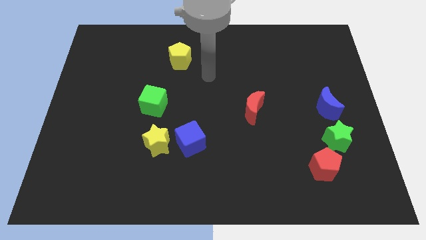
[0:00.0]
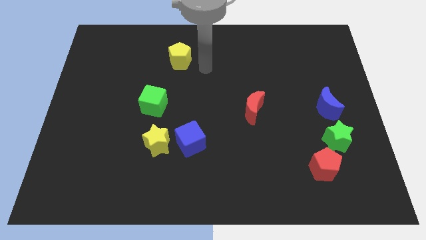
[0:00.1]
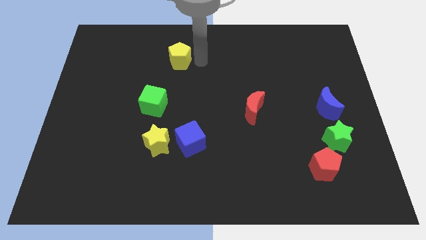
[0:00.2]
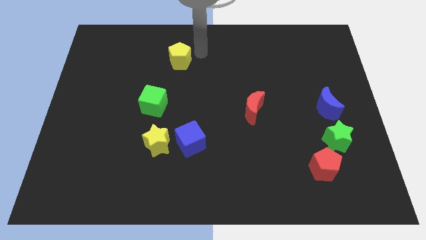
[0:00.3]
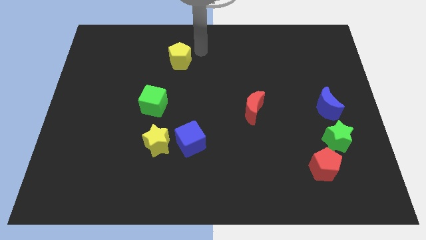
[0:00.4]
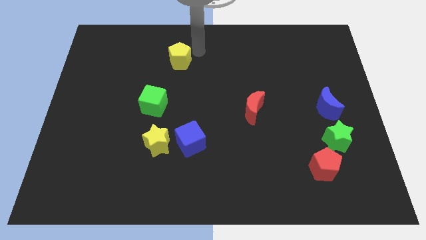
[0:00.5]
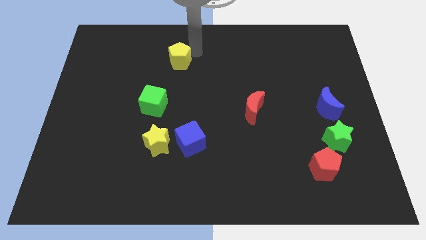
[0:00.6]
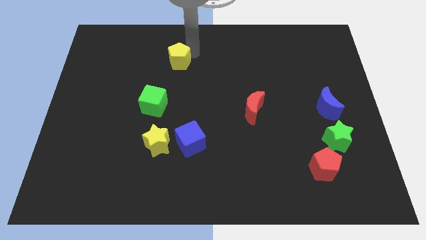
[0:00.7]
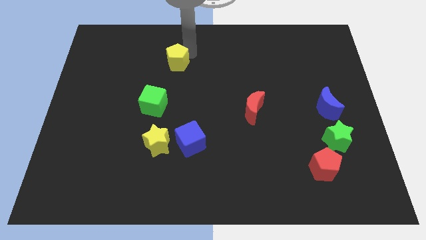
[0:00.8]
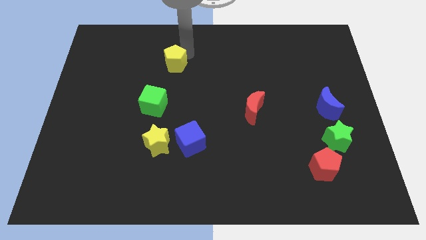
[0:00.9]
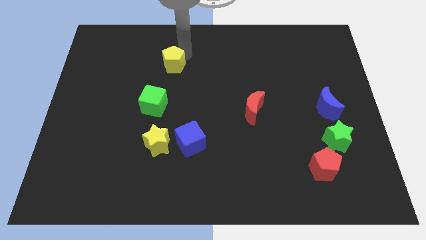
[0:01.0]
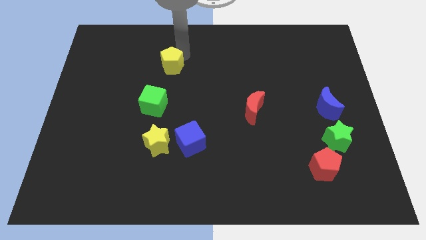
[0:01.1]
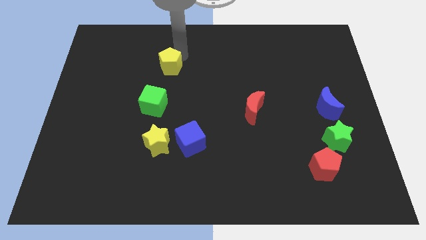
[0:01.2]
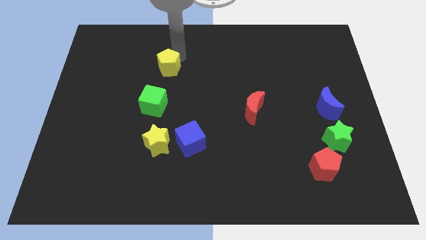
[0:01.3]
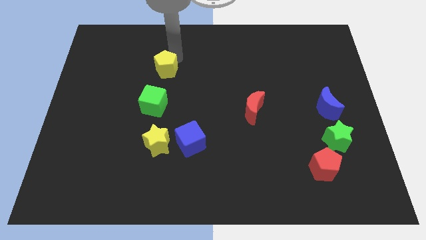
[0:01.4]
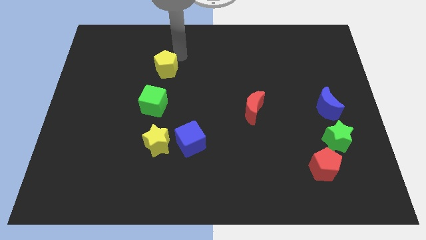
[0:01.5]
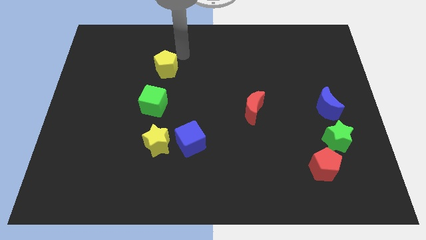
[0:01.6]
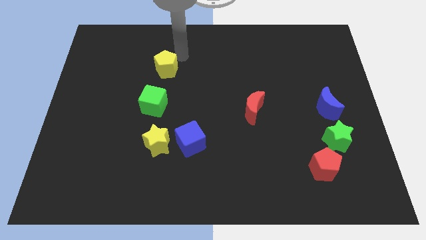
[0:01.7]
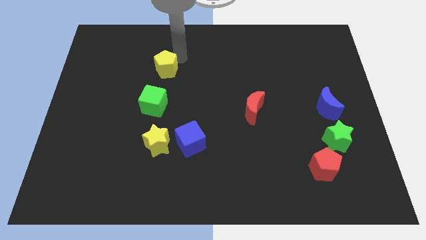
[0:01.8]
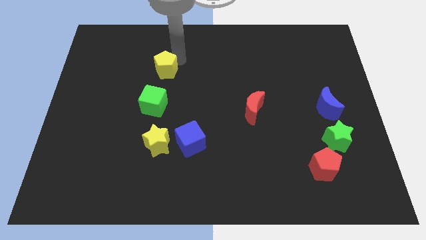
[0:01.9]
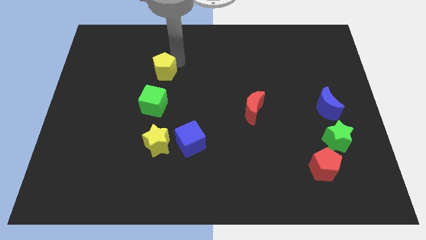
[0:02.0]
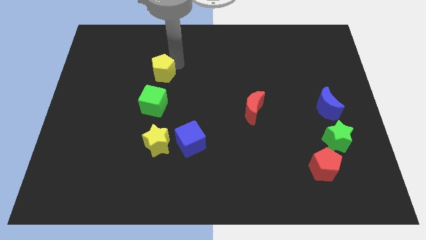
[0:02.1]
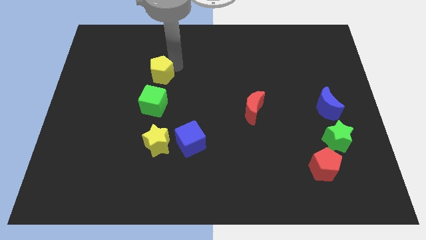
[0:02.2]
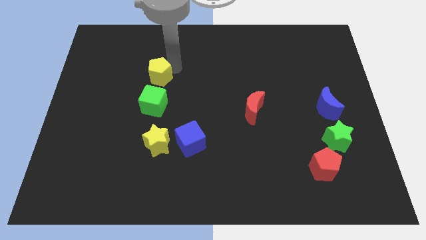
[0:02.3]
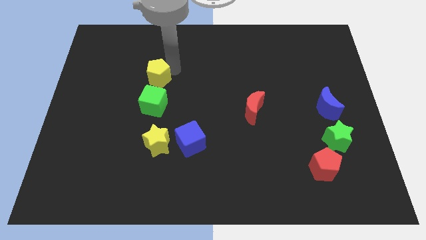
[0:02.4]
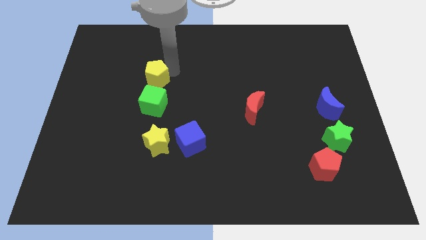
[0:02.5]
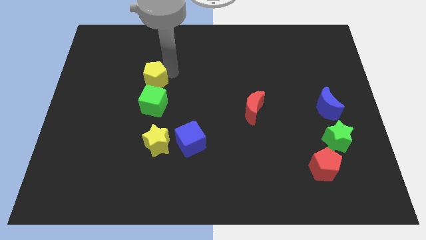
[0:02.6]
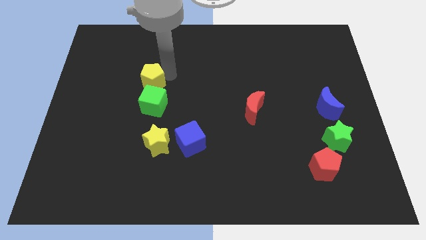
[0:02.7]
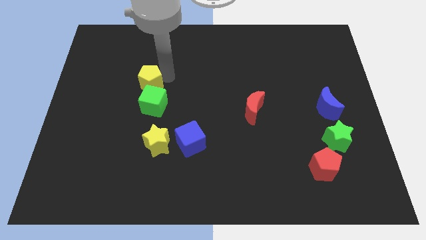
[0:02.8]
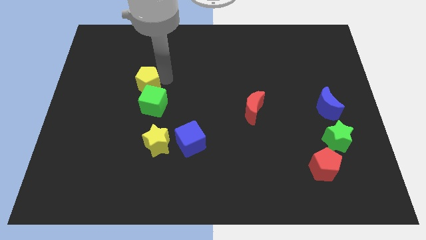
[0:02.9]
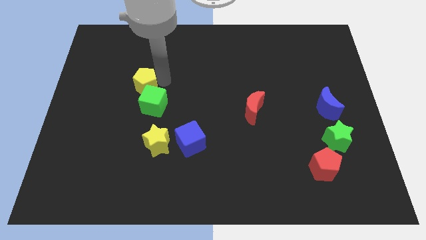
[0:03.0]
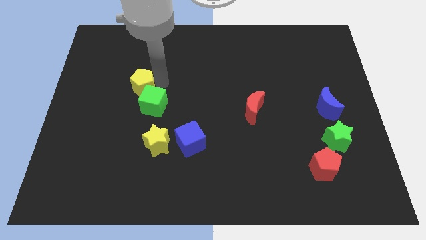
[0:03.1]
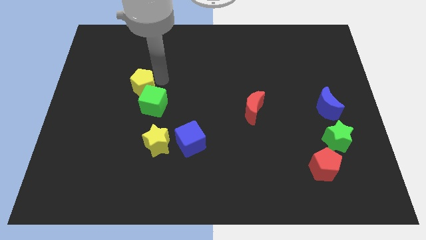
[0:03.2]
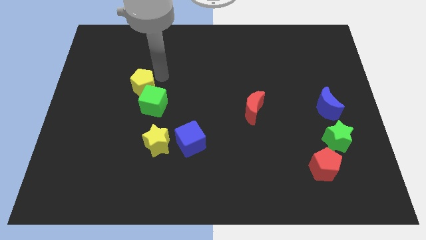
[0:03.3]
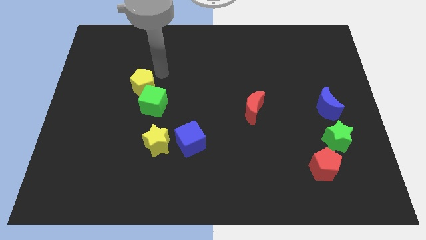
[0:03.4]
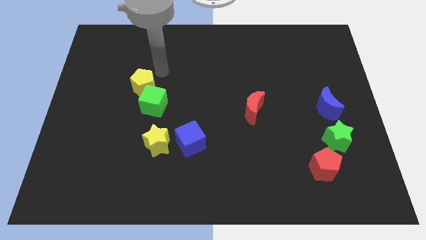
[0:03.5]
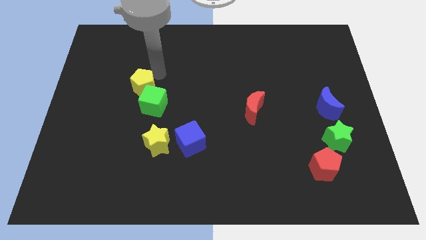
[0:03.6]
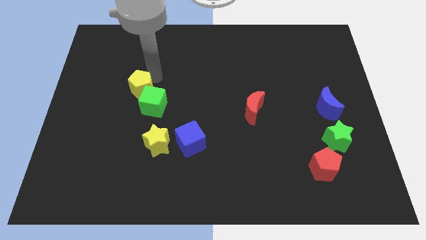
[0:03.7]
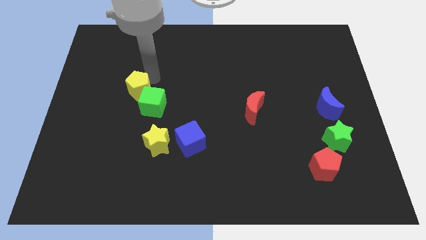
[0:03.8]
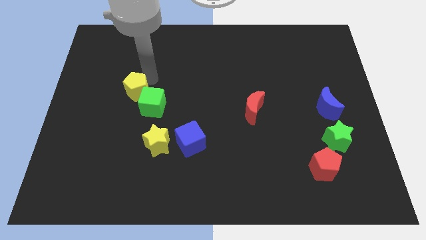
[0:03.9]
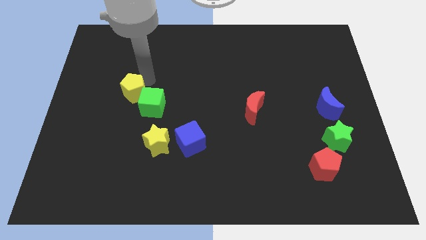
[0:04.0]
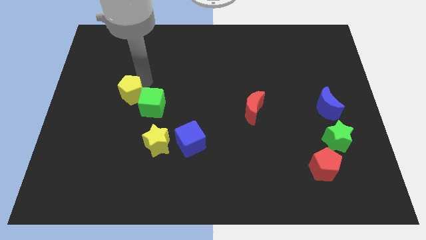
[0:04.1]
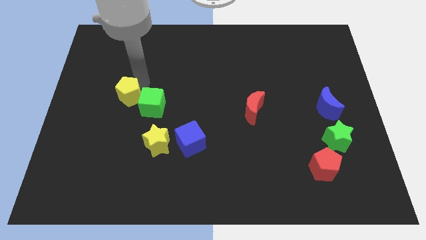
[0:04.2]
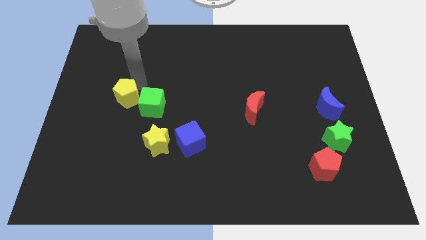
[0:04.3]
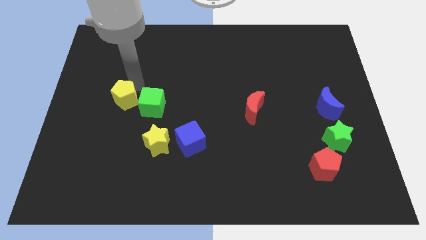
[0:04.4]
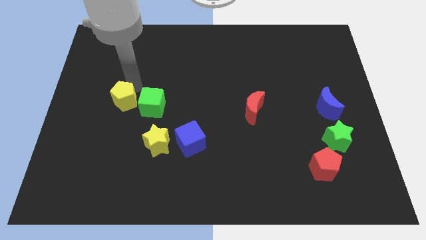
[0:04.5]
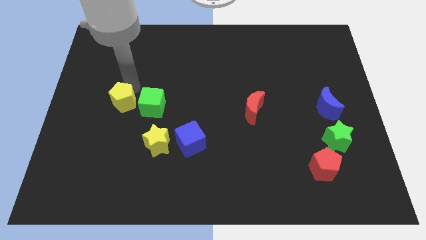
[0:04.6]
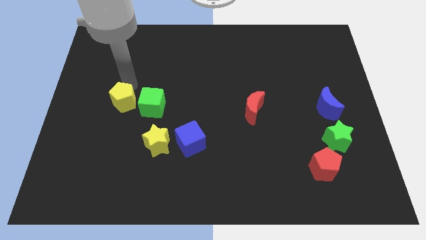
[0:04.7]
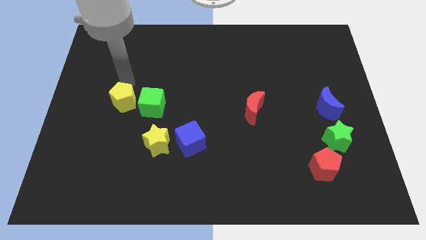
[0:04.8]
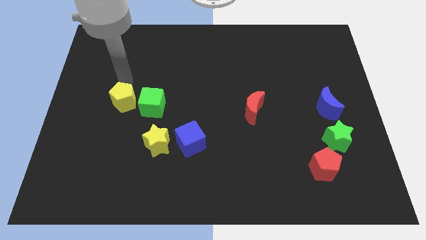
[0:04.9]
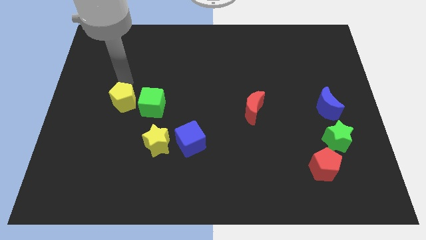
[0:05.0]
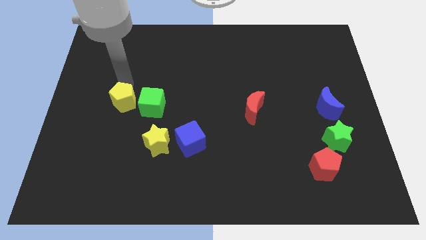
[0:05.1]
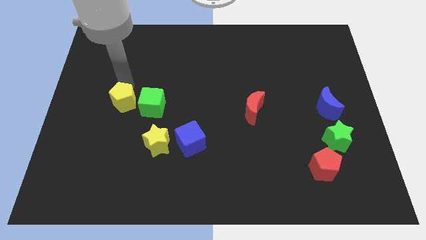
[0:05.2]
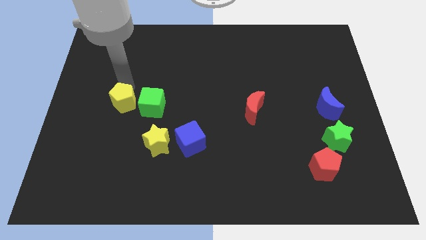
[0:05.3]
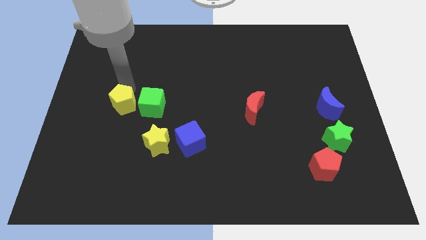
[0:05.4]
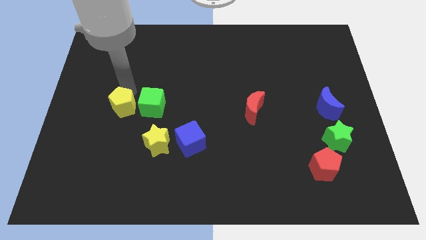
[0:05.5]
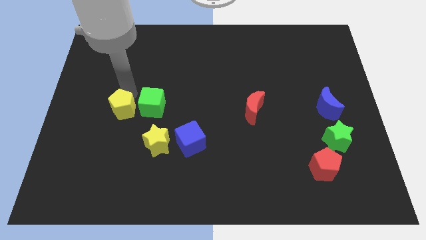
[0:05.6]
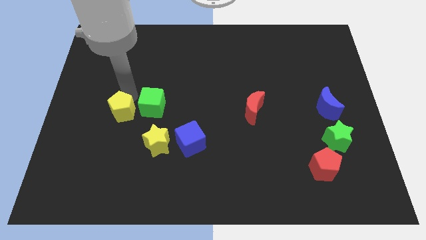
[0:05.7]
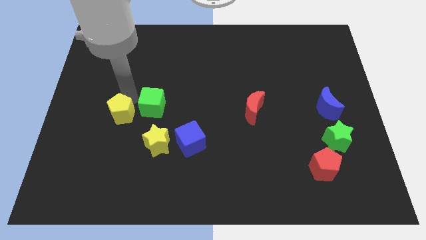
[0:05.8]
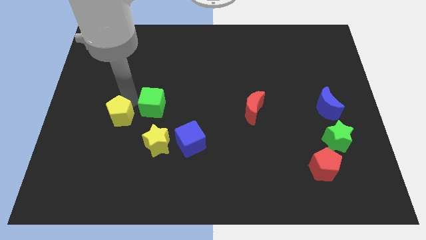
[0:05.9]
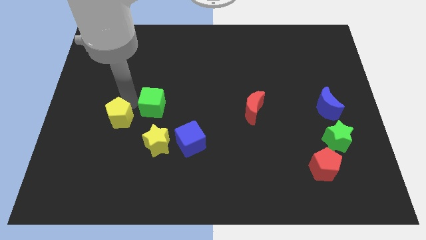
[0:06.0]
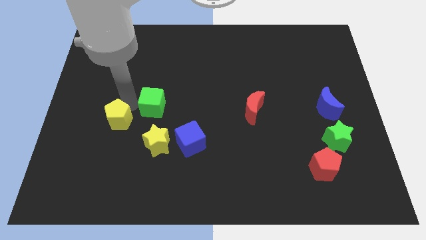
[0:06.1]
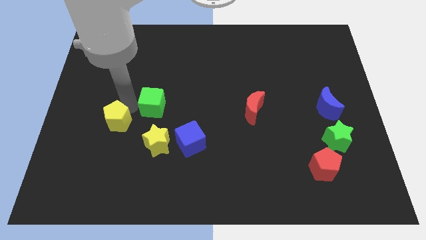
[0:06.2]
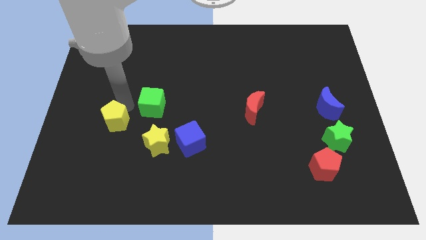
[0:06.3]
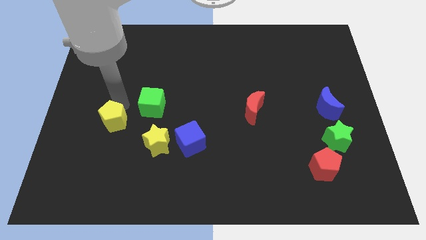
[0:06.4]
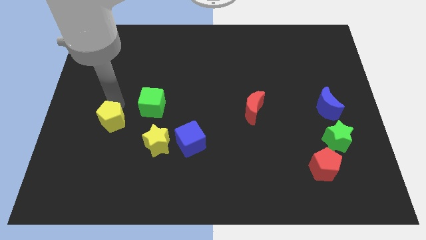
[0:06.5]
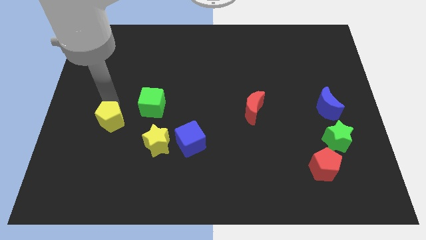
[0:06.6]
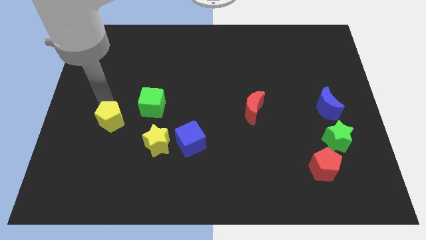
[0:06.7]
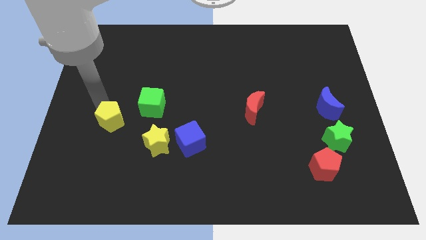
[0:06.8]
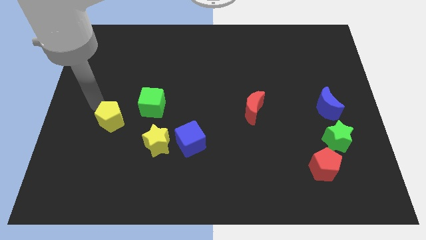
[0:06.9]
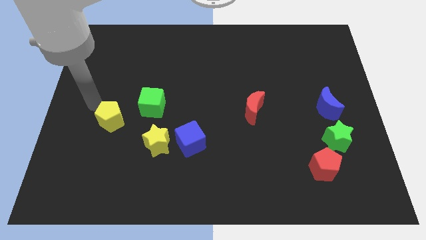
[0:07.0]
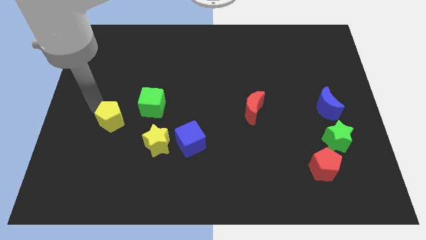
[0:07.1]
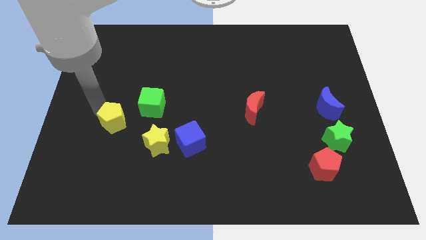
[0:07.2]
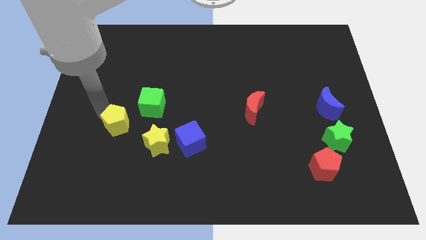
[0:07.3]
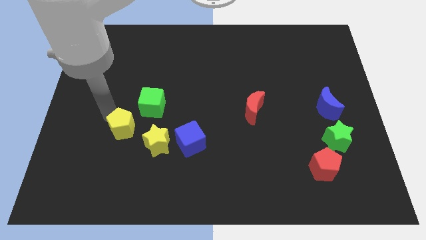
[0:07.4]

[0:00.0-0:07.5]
move the yellow pentagon to the left of the yellow star
